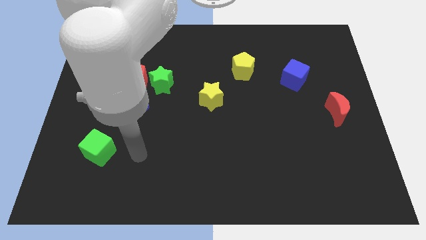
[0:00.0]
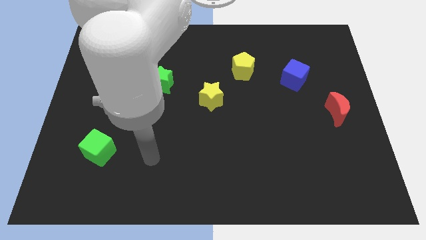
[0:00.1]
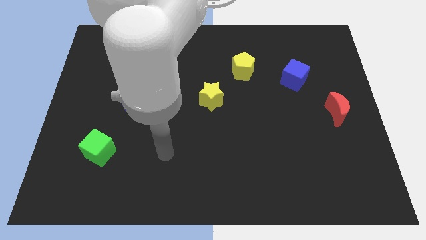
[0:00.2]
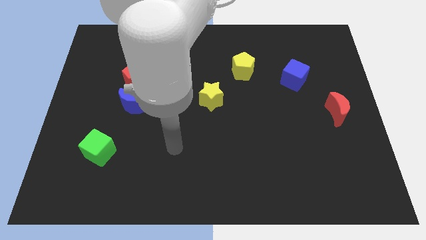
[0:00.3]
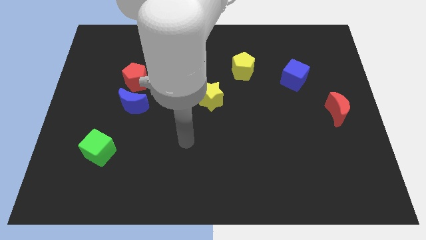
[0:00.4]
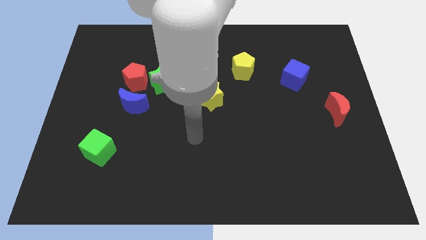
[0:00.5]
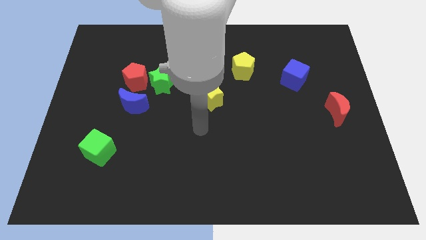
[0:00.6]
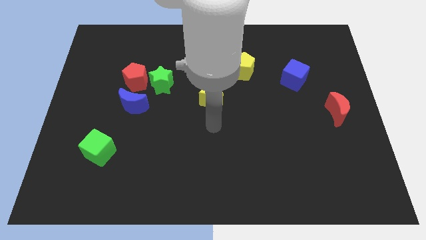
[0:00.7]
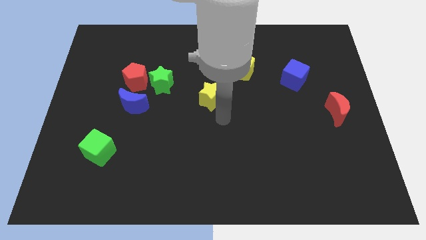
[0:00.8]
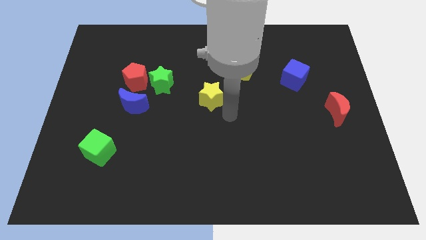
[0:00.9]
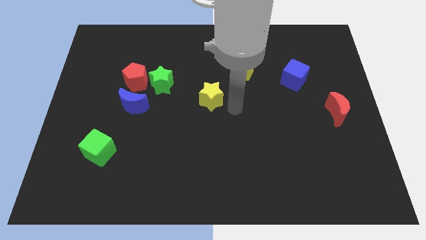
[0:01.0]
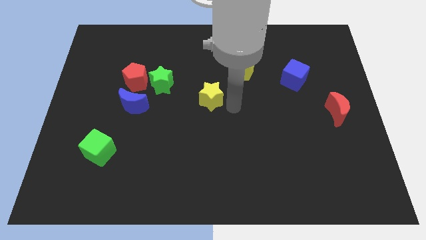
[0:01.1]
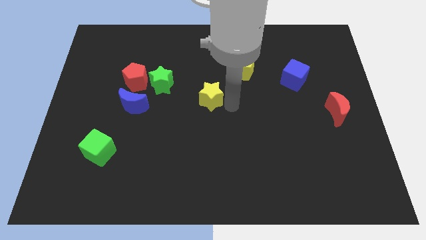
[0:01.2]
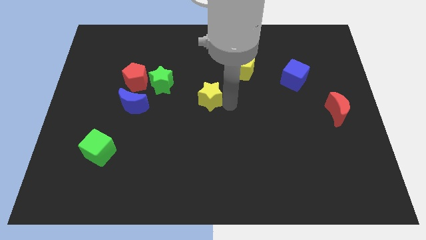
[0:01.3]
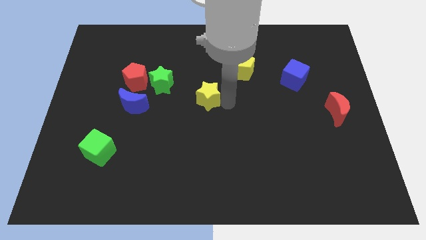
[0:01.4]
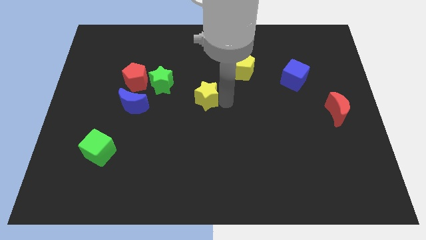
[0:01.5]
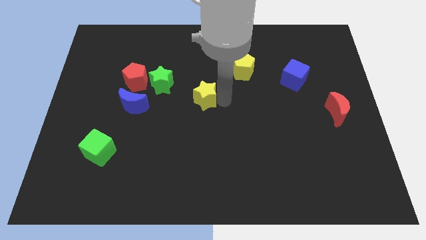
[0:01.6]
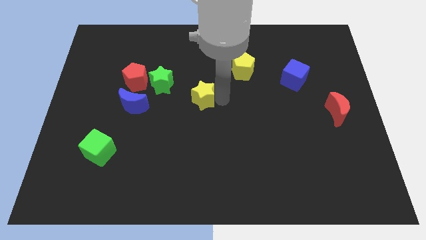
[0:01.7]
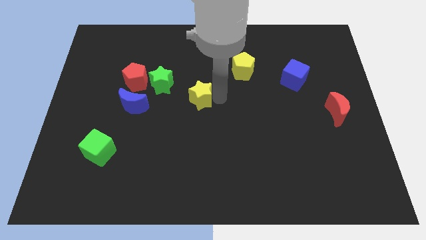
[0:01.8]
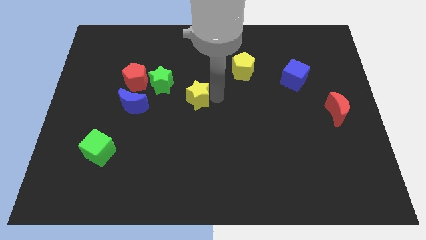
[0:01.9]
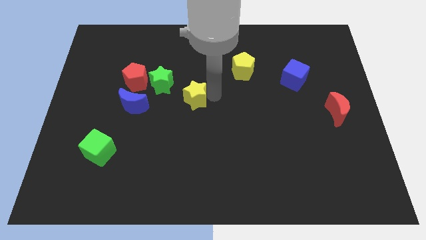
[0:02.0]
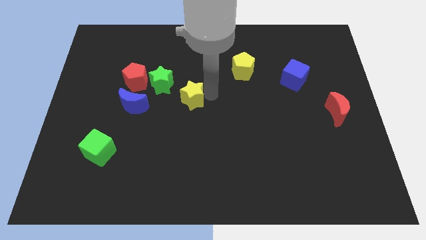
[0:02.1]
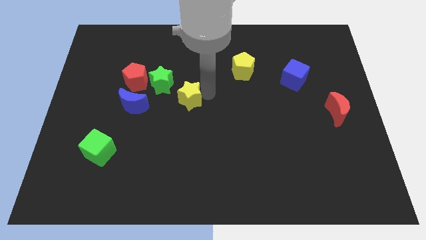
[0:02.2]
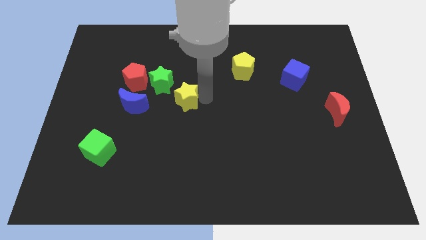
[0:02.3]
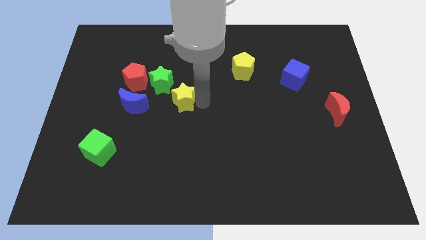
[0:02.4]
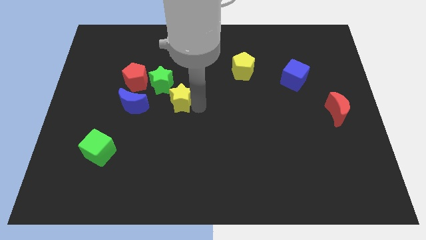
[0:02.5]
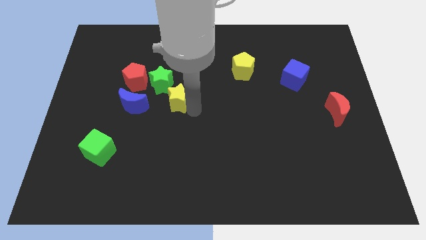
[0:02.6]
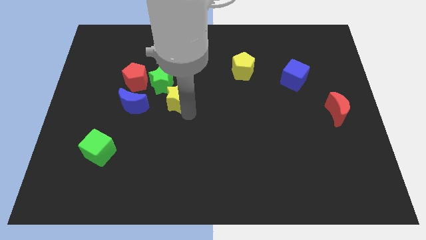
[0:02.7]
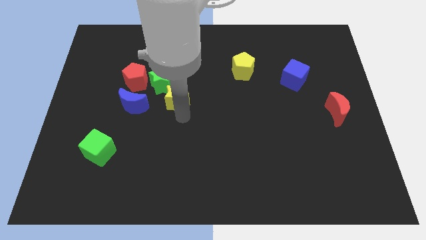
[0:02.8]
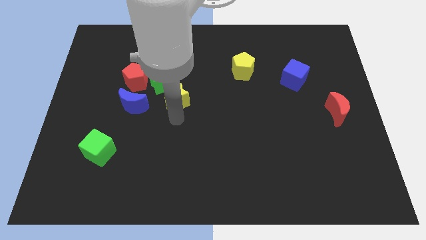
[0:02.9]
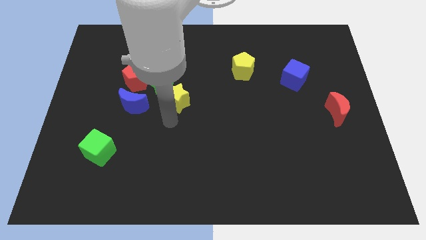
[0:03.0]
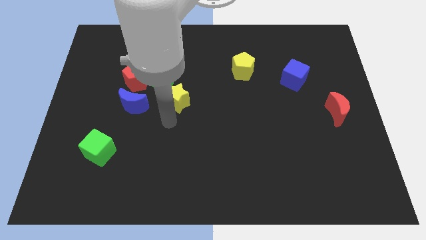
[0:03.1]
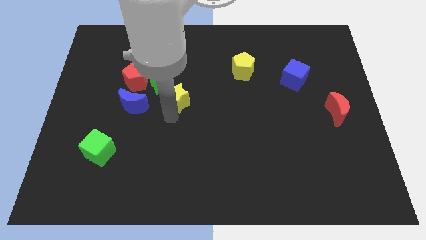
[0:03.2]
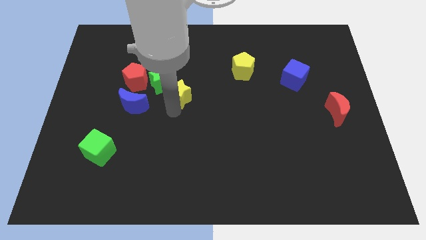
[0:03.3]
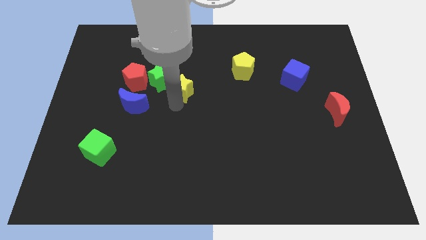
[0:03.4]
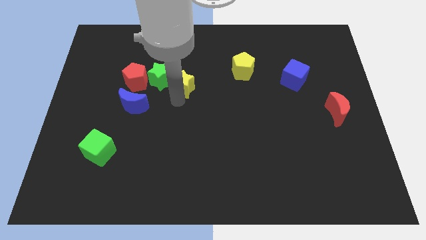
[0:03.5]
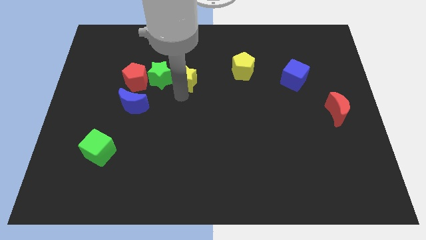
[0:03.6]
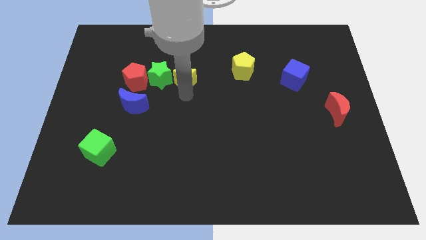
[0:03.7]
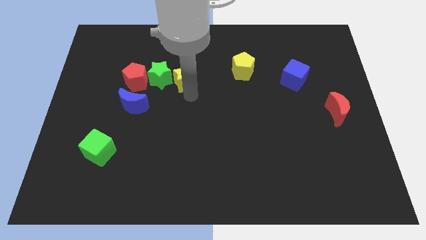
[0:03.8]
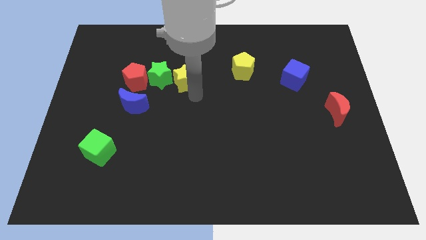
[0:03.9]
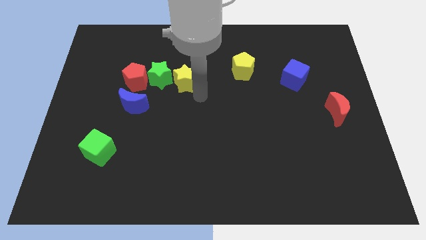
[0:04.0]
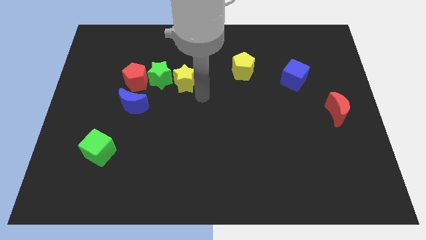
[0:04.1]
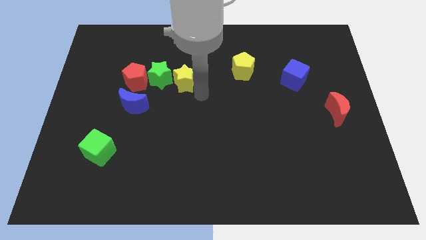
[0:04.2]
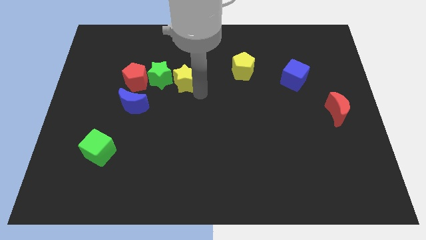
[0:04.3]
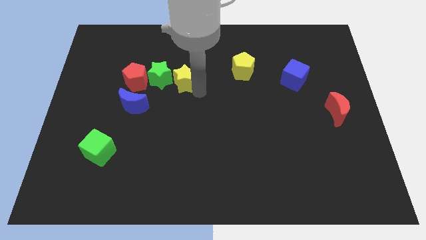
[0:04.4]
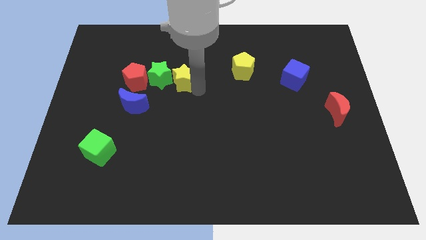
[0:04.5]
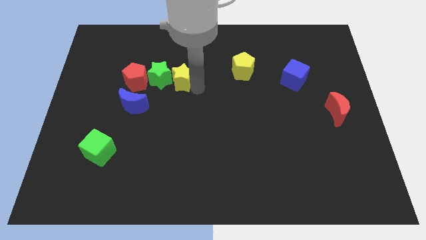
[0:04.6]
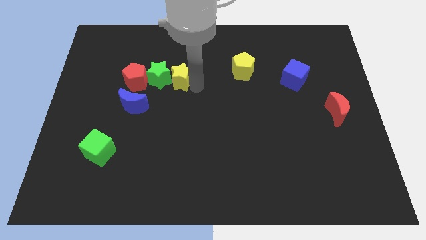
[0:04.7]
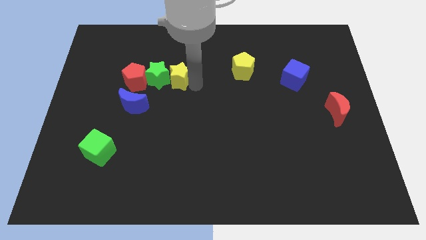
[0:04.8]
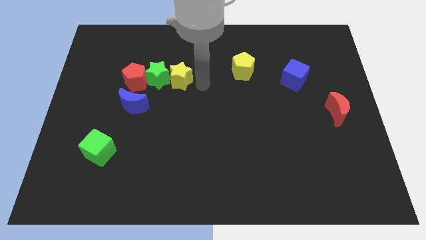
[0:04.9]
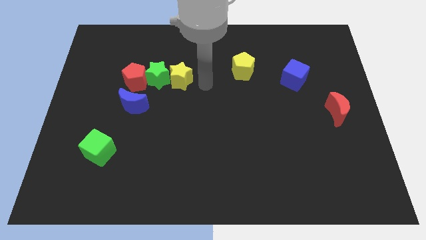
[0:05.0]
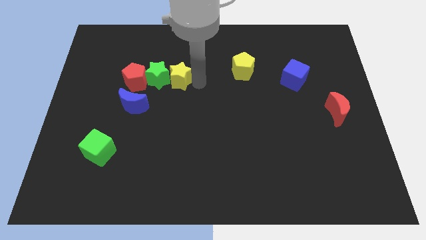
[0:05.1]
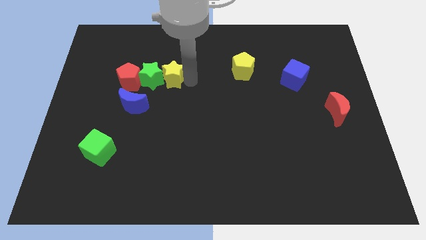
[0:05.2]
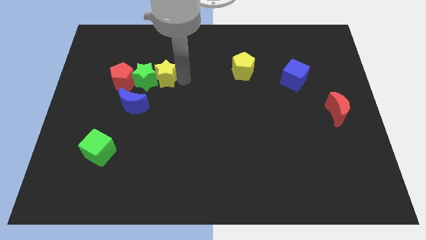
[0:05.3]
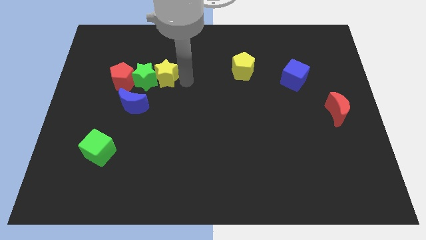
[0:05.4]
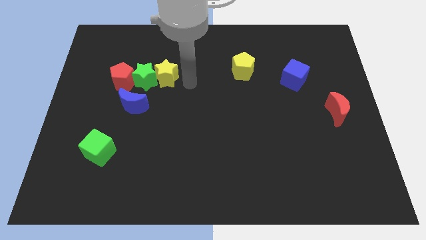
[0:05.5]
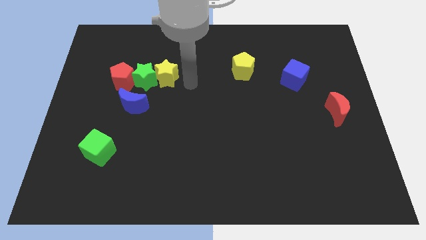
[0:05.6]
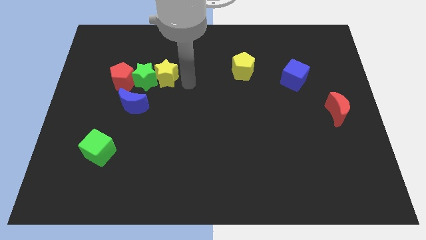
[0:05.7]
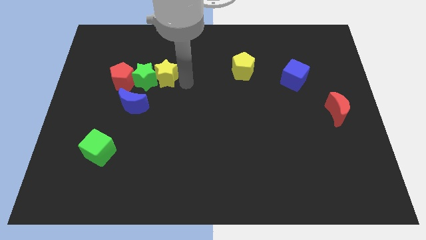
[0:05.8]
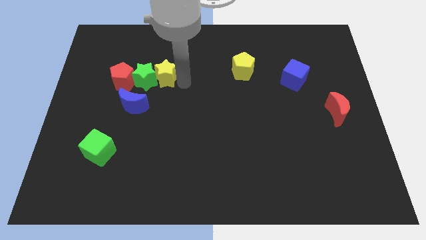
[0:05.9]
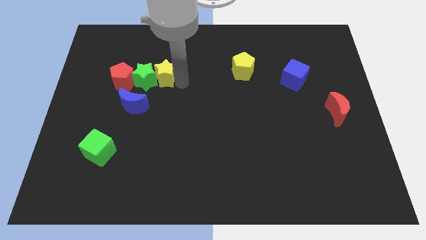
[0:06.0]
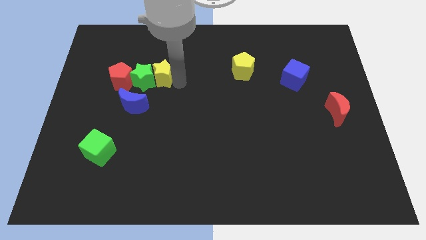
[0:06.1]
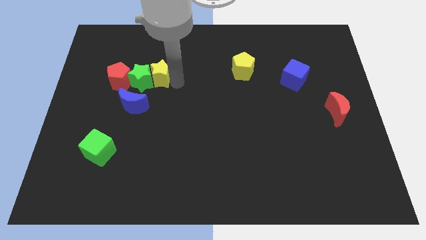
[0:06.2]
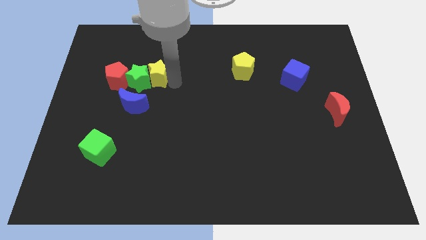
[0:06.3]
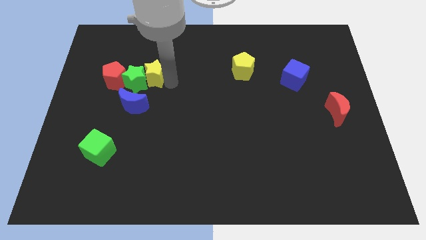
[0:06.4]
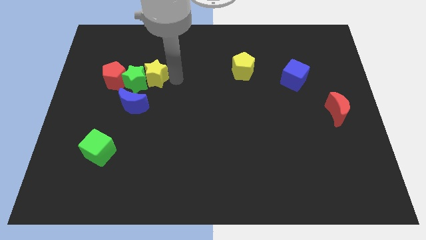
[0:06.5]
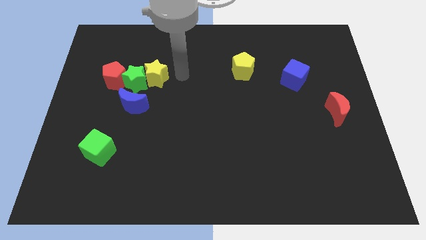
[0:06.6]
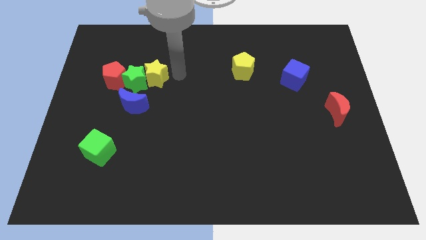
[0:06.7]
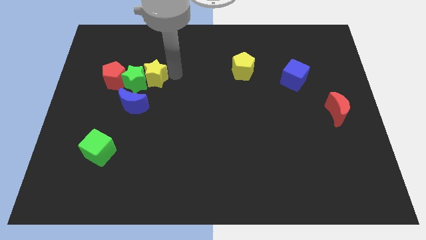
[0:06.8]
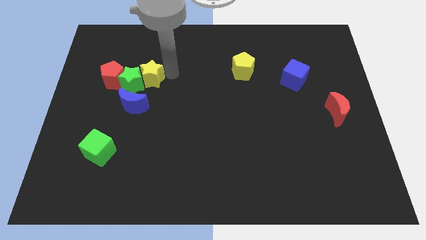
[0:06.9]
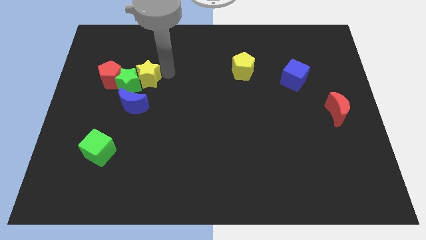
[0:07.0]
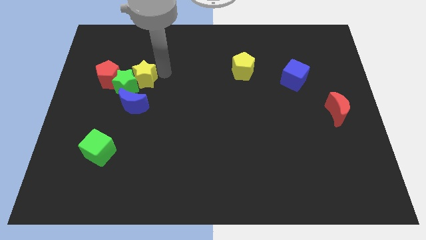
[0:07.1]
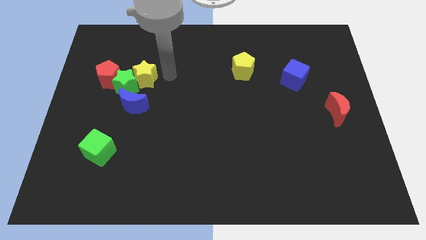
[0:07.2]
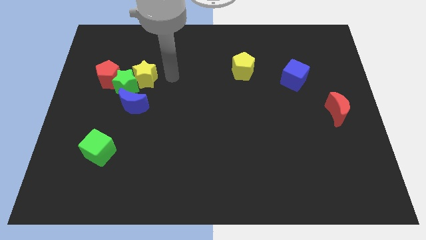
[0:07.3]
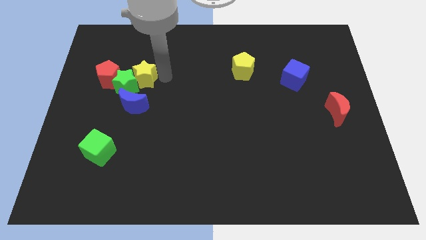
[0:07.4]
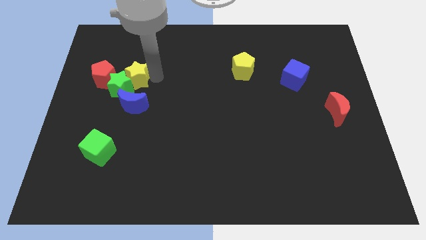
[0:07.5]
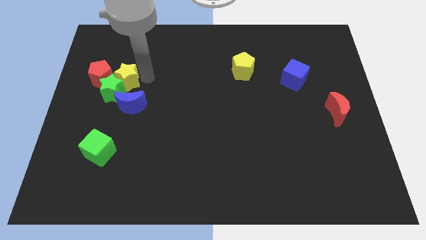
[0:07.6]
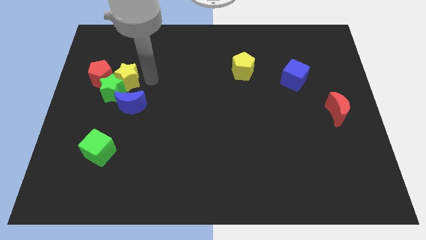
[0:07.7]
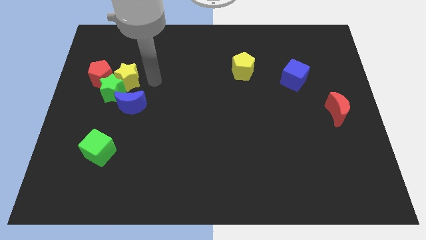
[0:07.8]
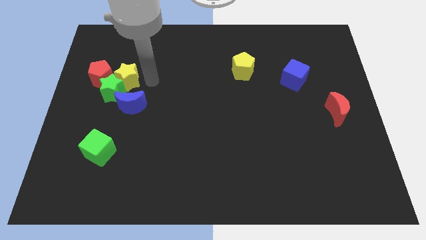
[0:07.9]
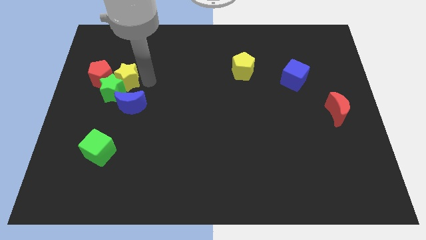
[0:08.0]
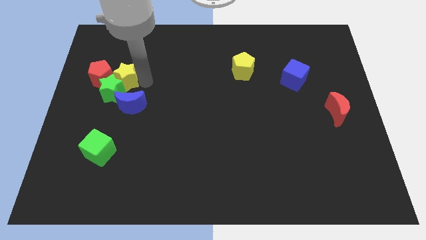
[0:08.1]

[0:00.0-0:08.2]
move the yellow star next to the red pentagon
